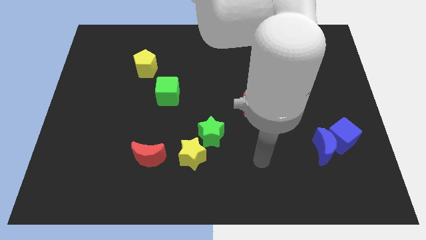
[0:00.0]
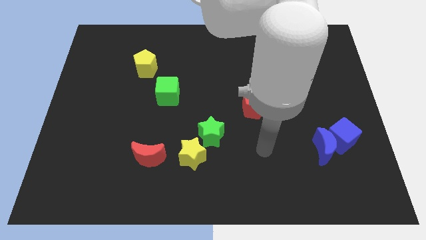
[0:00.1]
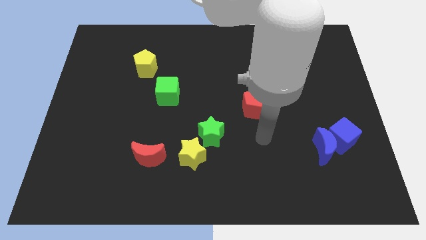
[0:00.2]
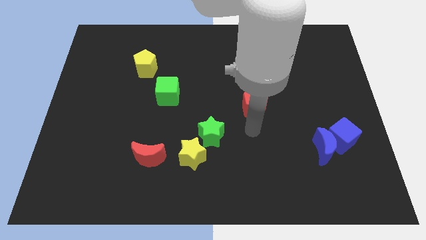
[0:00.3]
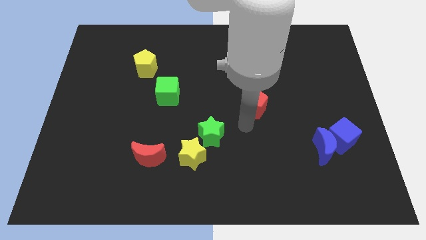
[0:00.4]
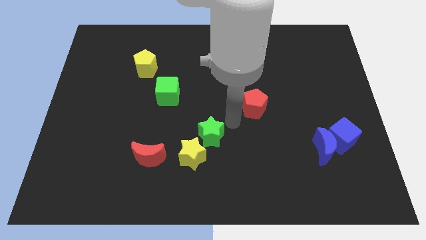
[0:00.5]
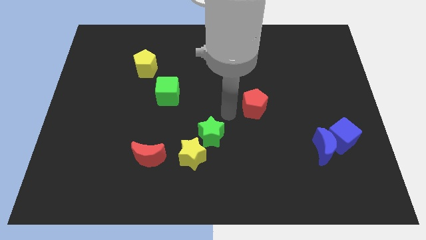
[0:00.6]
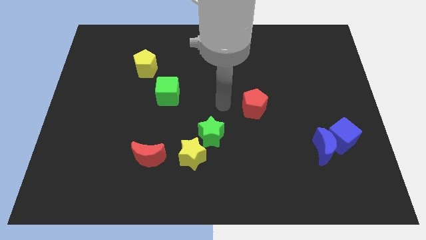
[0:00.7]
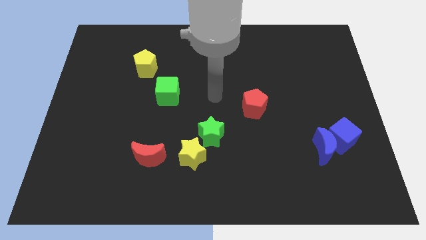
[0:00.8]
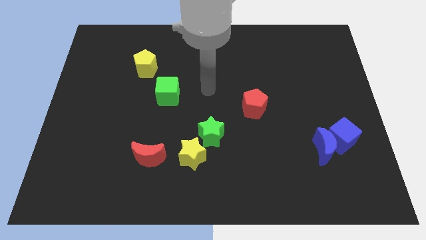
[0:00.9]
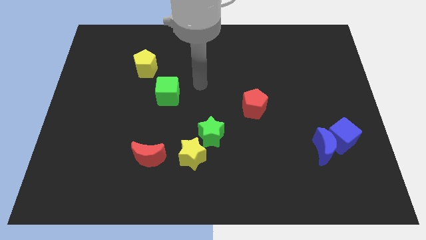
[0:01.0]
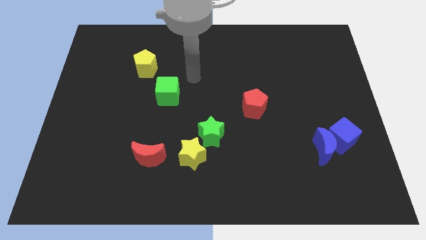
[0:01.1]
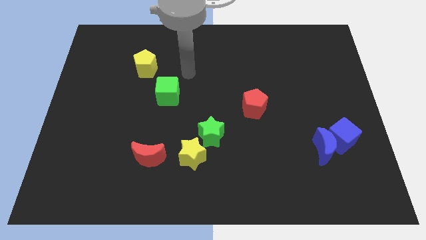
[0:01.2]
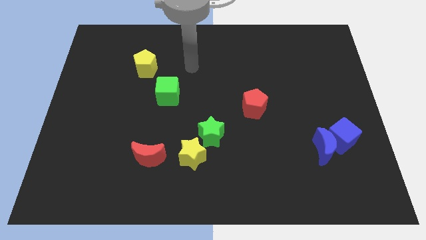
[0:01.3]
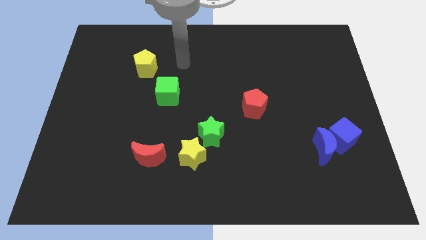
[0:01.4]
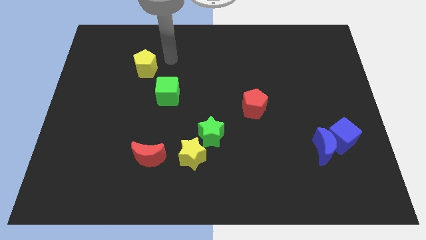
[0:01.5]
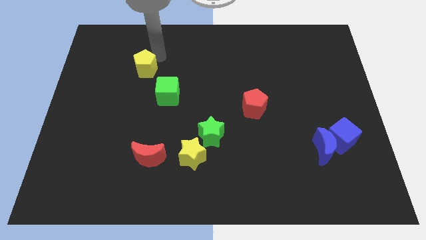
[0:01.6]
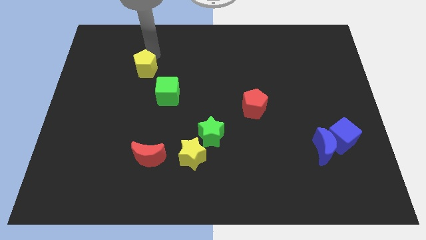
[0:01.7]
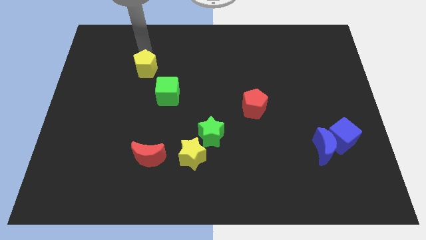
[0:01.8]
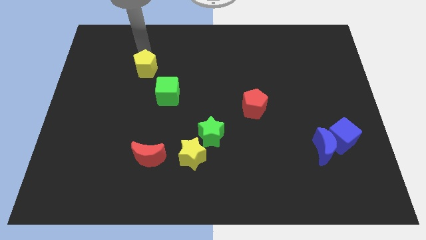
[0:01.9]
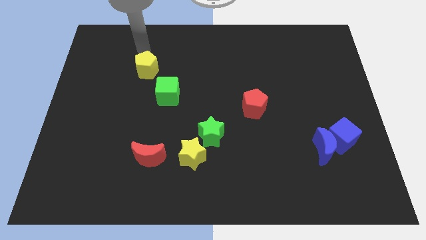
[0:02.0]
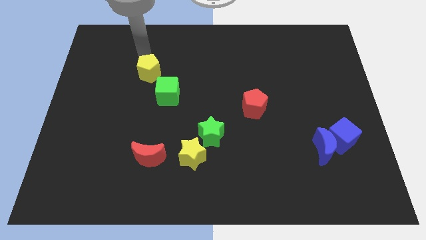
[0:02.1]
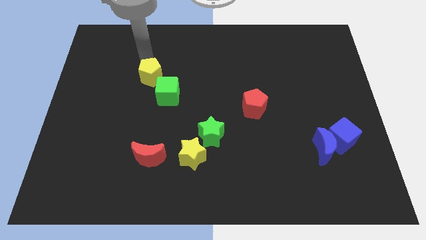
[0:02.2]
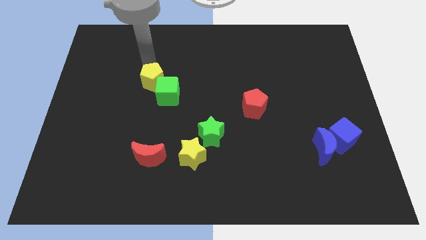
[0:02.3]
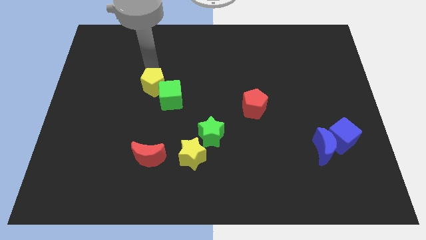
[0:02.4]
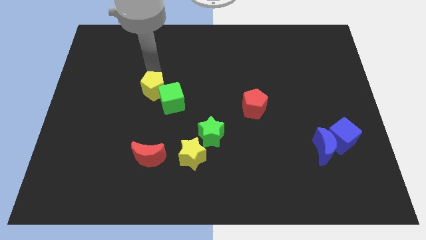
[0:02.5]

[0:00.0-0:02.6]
push the yellow pentagon downwards a little bit

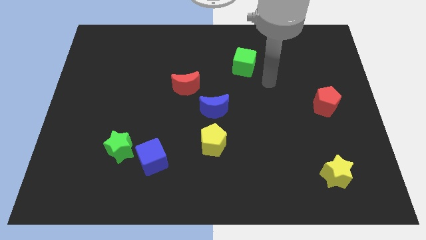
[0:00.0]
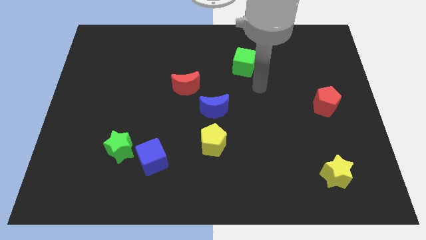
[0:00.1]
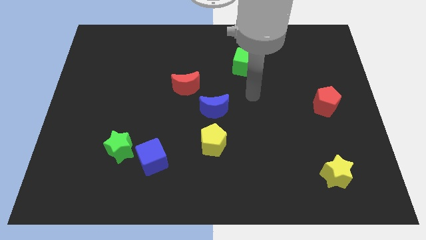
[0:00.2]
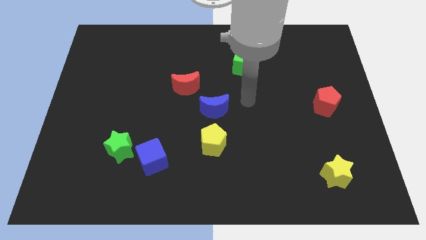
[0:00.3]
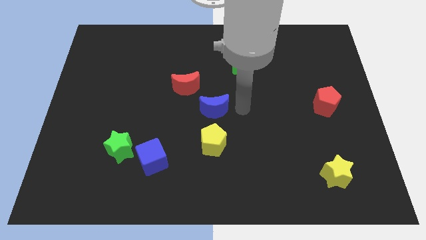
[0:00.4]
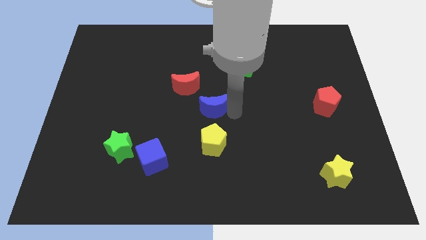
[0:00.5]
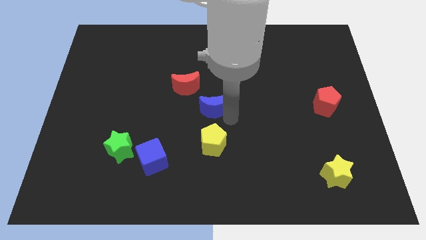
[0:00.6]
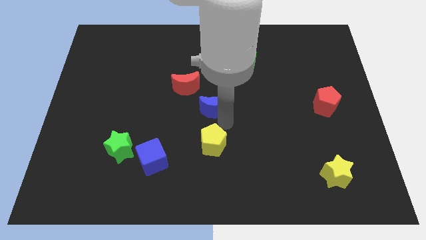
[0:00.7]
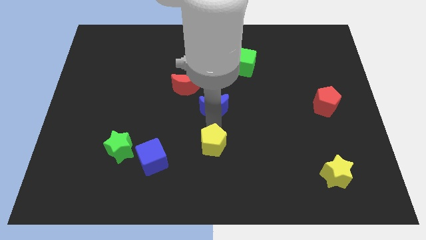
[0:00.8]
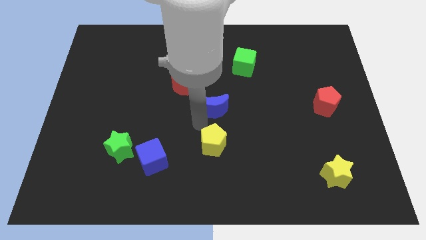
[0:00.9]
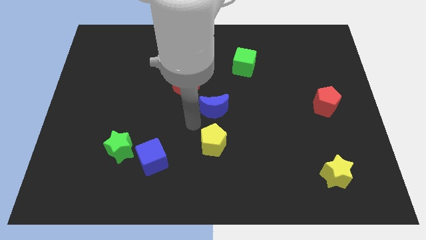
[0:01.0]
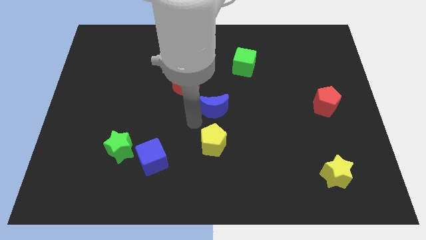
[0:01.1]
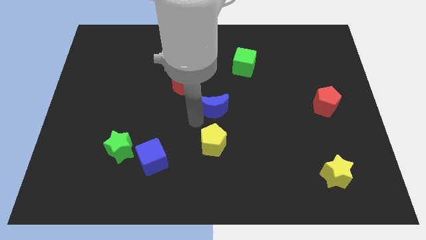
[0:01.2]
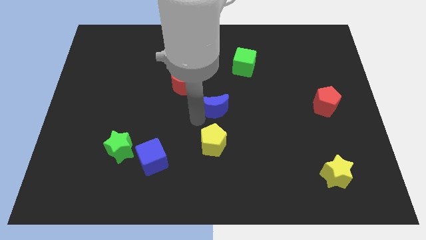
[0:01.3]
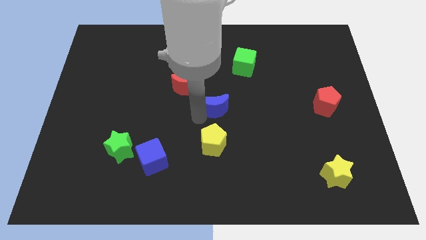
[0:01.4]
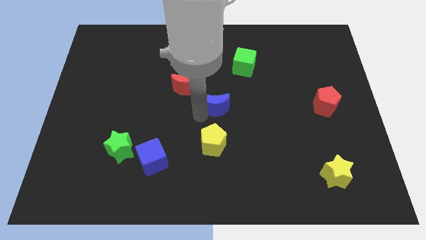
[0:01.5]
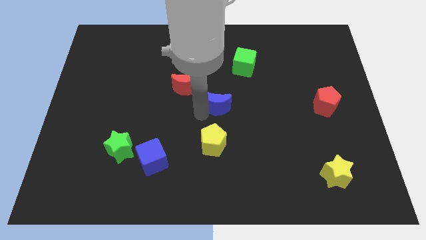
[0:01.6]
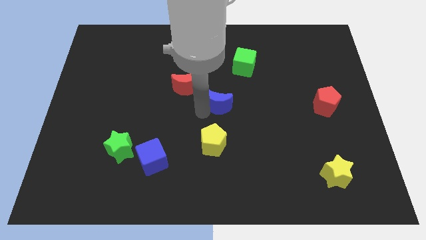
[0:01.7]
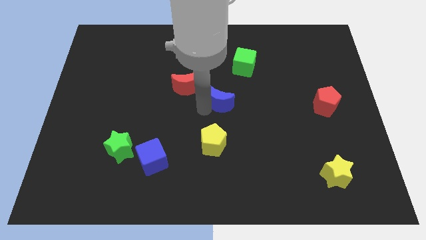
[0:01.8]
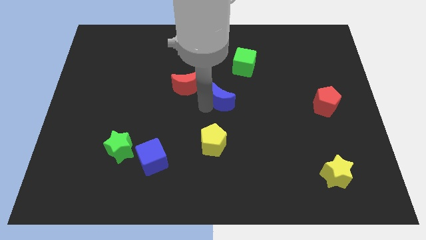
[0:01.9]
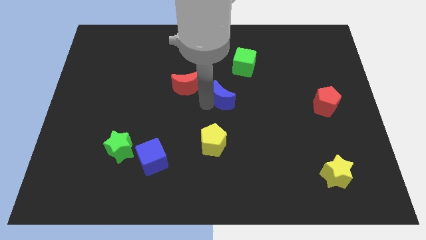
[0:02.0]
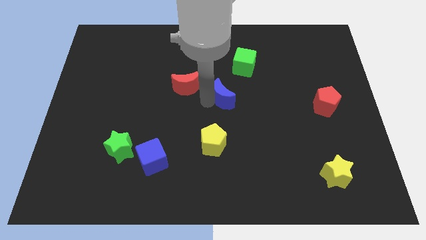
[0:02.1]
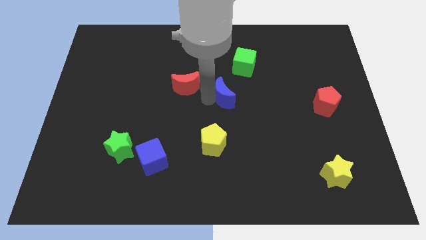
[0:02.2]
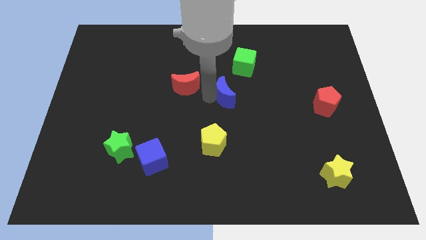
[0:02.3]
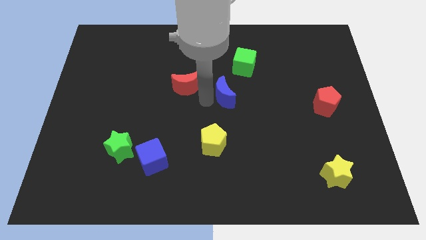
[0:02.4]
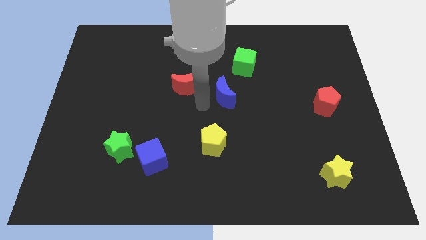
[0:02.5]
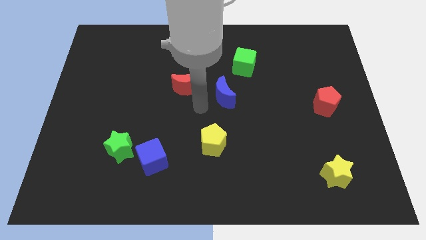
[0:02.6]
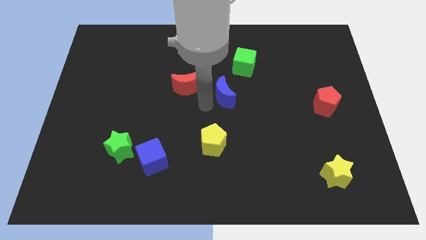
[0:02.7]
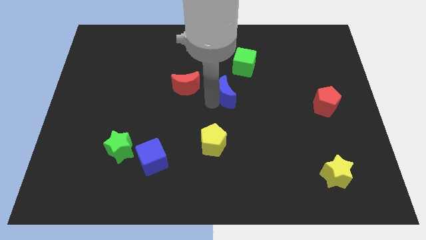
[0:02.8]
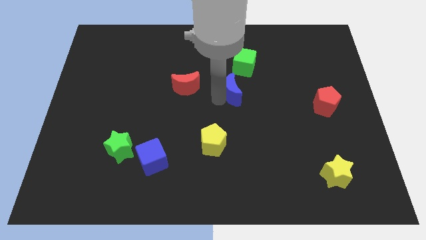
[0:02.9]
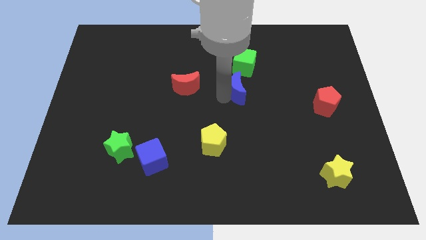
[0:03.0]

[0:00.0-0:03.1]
slightly slide the blue moon upwards and right diagonally

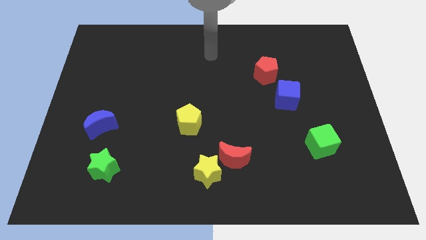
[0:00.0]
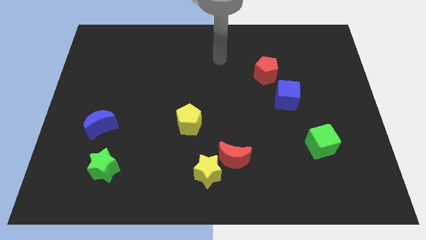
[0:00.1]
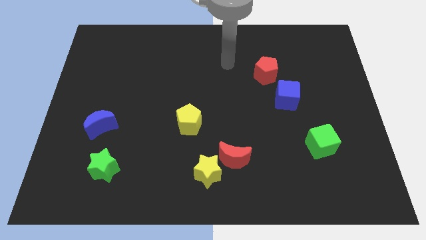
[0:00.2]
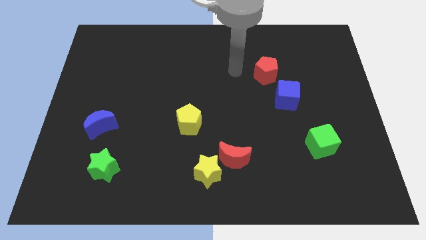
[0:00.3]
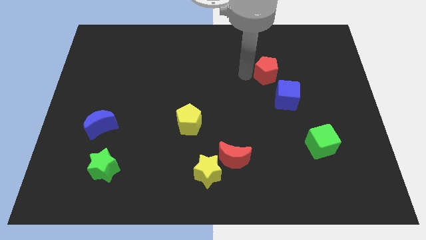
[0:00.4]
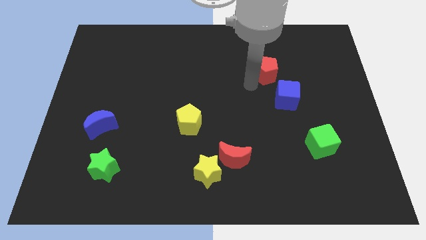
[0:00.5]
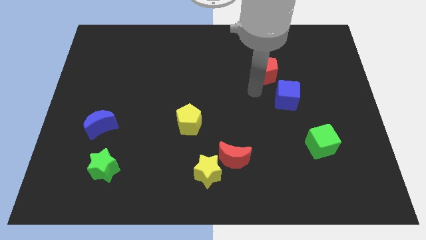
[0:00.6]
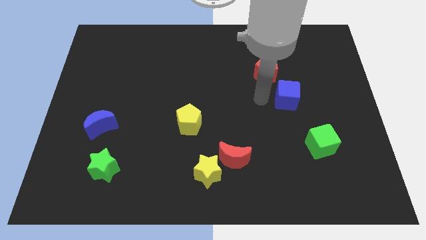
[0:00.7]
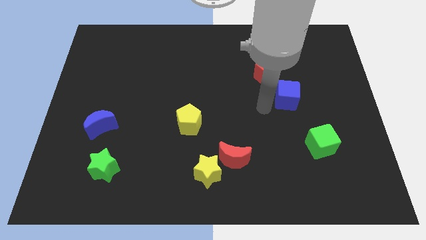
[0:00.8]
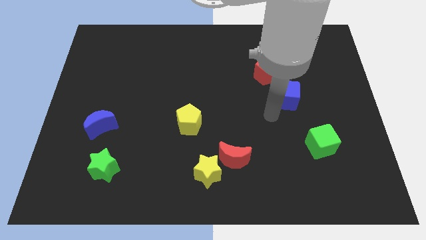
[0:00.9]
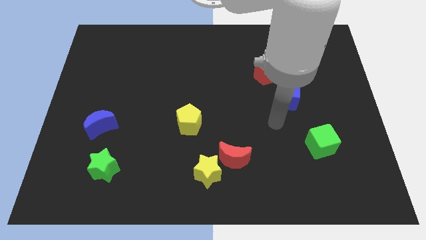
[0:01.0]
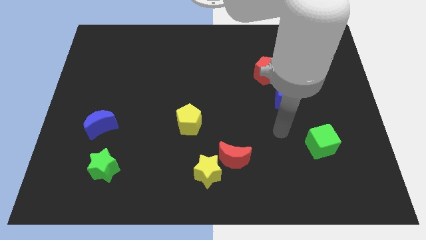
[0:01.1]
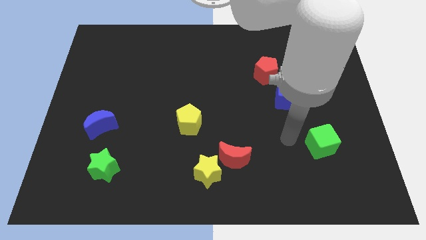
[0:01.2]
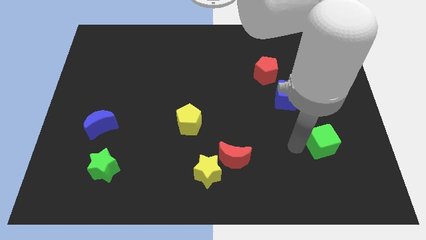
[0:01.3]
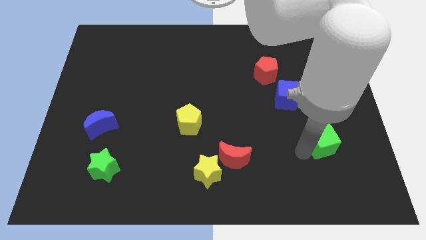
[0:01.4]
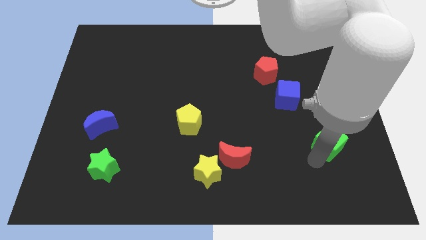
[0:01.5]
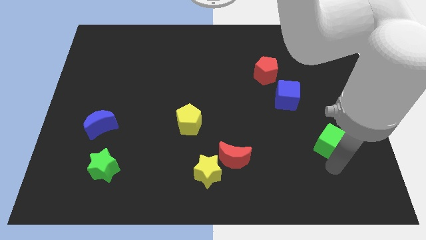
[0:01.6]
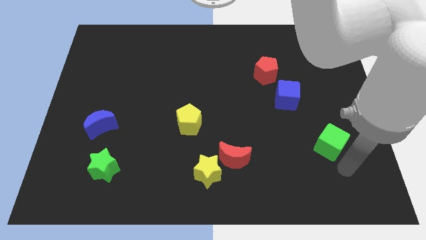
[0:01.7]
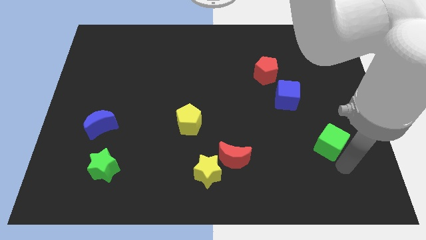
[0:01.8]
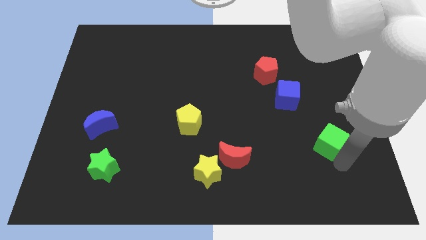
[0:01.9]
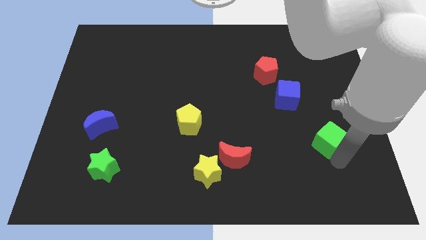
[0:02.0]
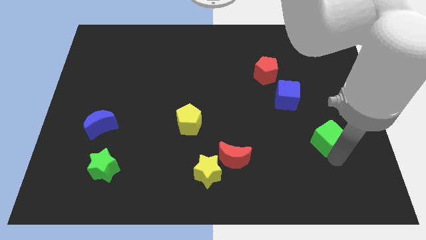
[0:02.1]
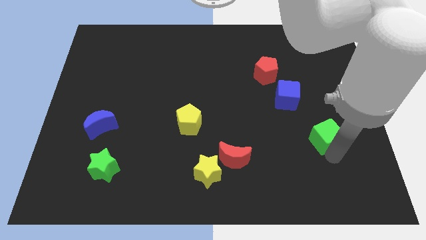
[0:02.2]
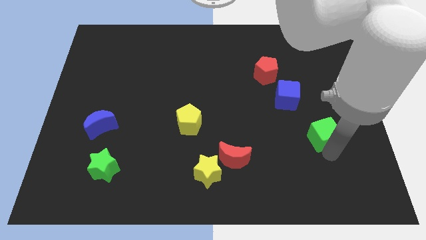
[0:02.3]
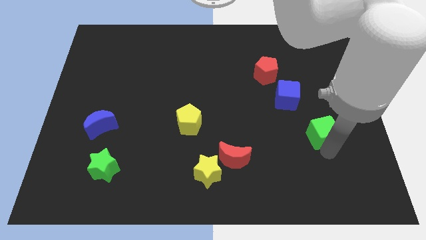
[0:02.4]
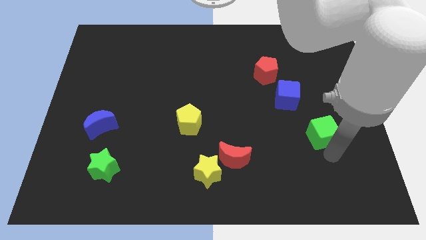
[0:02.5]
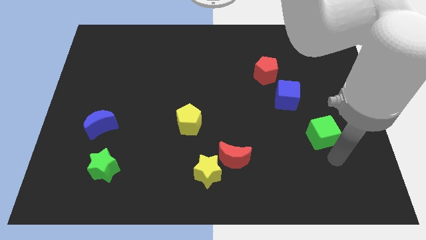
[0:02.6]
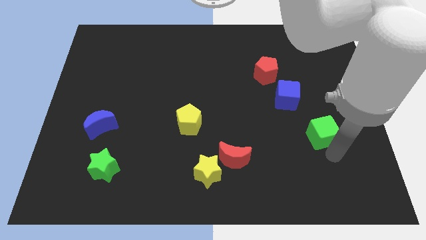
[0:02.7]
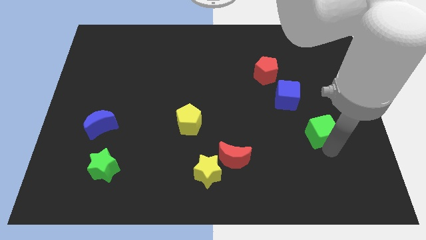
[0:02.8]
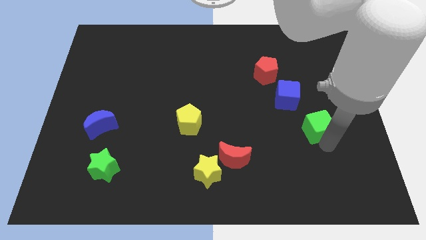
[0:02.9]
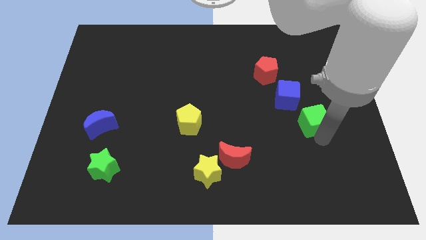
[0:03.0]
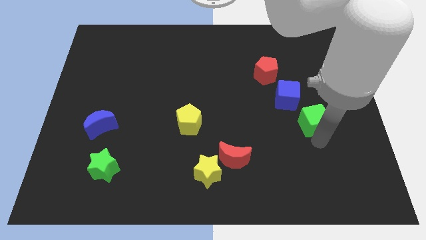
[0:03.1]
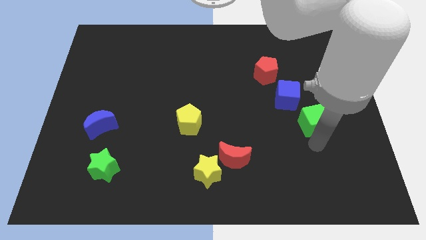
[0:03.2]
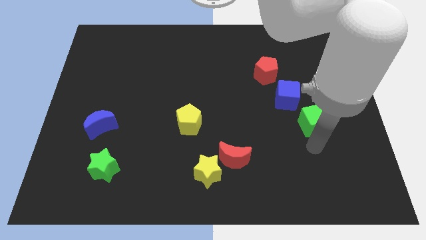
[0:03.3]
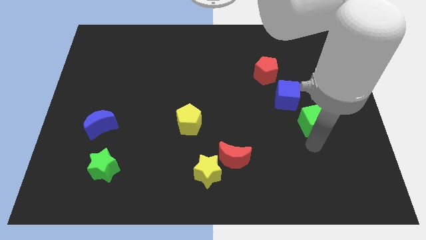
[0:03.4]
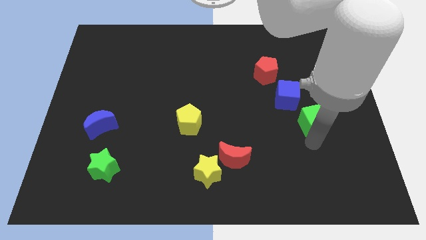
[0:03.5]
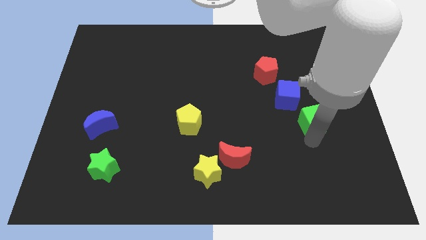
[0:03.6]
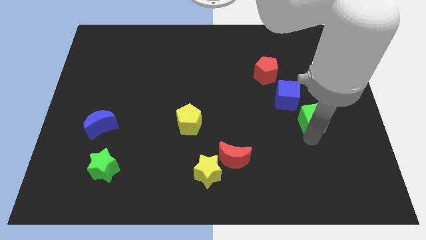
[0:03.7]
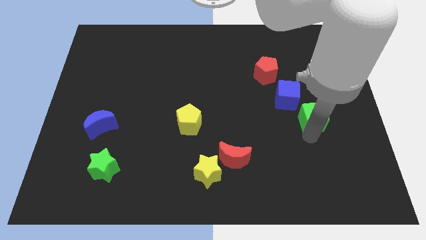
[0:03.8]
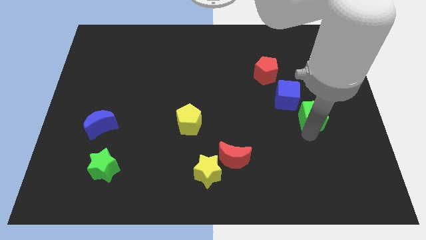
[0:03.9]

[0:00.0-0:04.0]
slide the green cube slightly up
